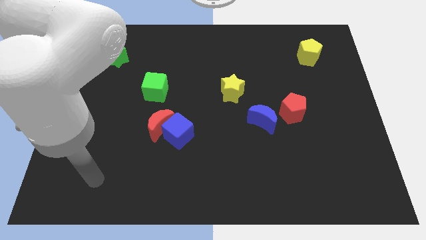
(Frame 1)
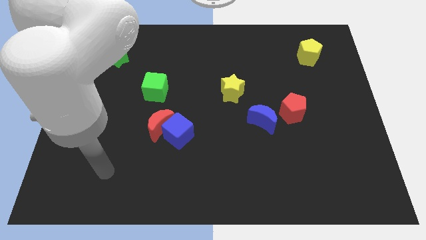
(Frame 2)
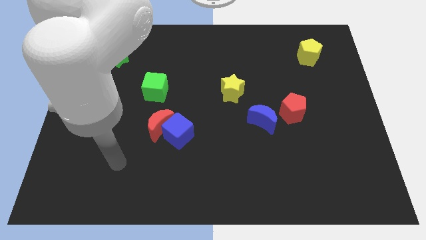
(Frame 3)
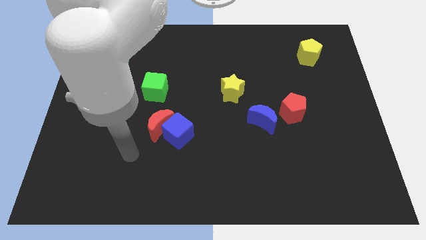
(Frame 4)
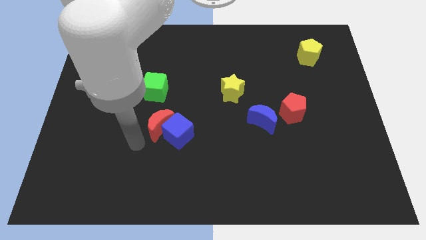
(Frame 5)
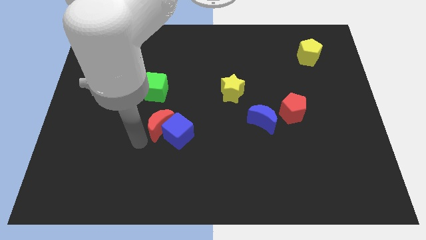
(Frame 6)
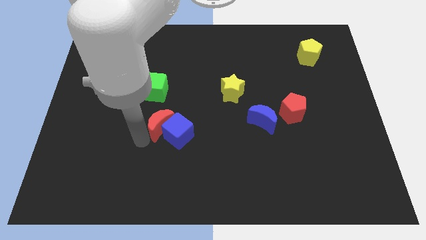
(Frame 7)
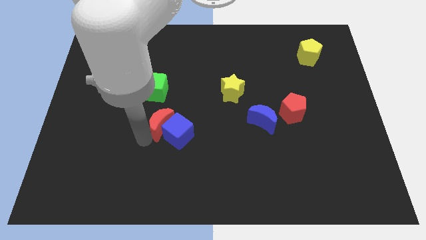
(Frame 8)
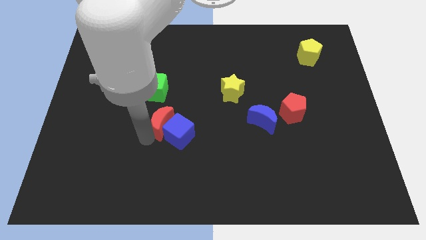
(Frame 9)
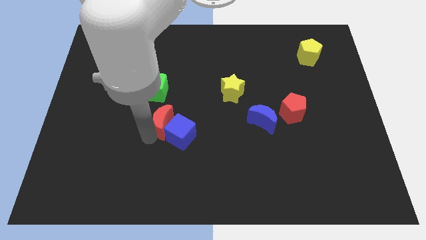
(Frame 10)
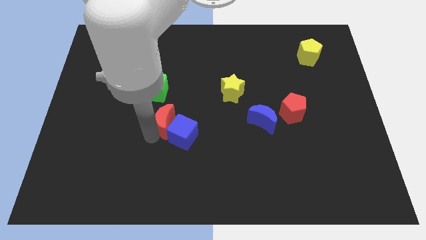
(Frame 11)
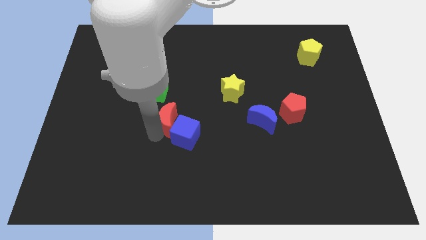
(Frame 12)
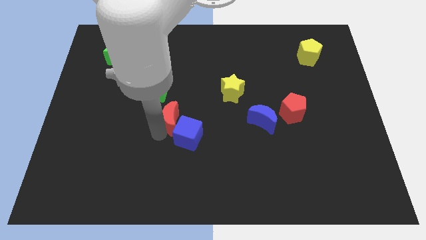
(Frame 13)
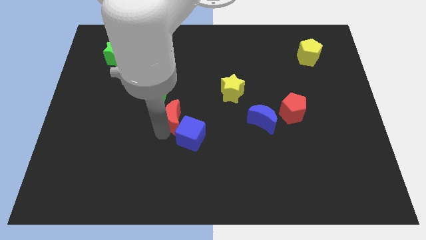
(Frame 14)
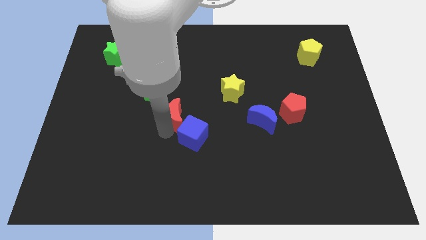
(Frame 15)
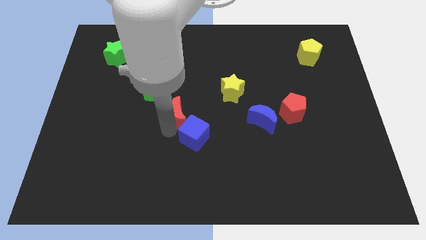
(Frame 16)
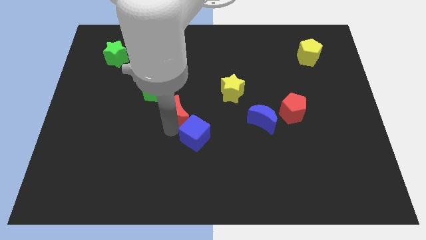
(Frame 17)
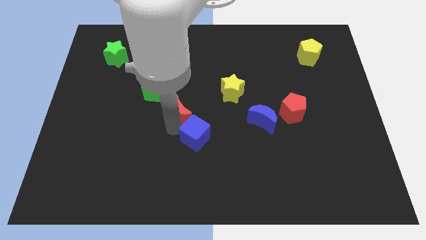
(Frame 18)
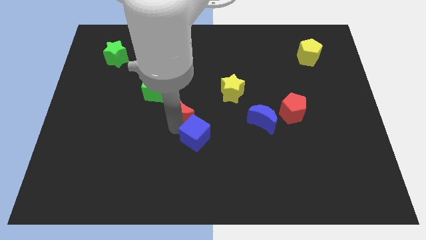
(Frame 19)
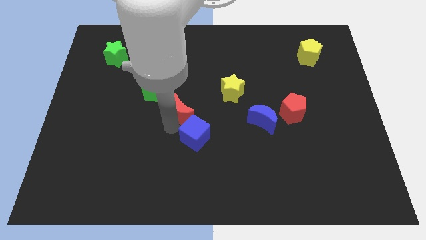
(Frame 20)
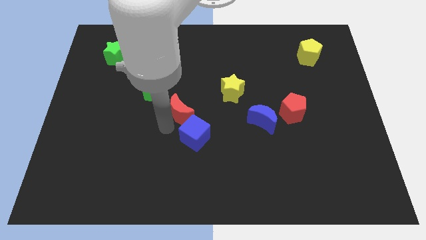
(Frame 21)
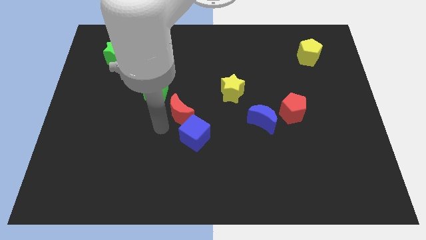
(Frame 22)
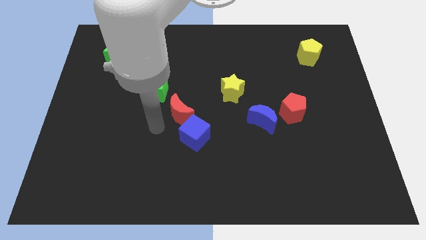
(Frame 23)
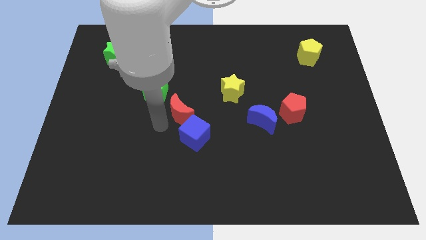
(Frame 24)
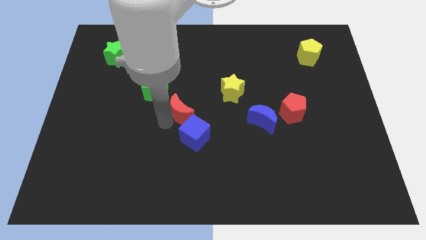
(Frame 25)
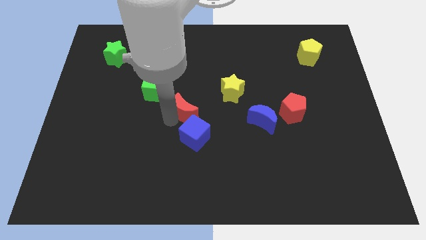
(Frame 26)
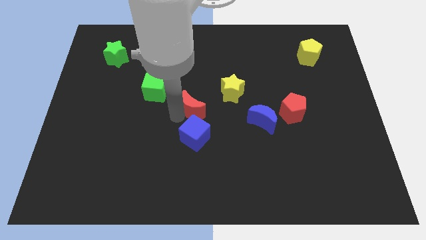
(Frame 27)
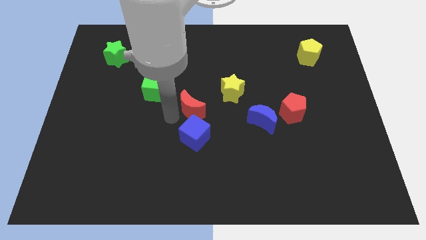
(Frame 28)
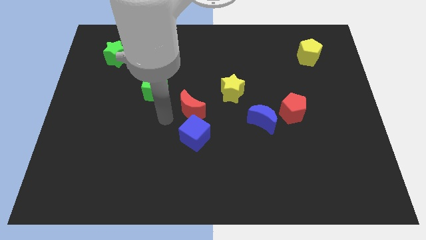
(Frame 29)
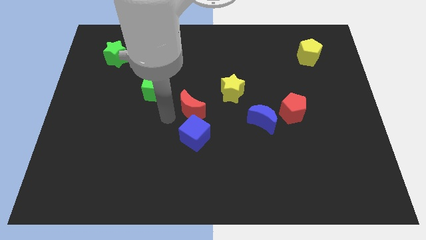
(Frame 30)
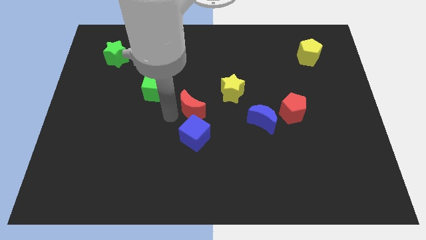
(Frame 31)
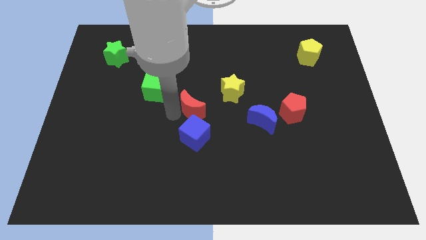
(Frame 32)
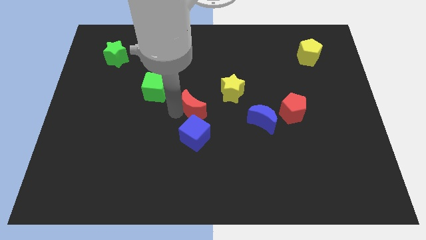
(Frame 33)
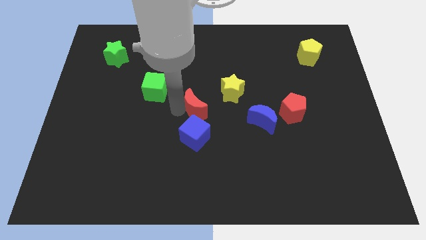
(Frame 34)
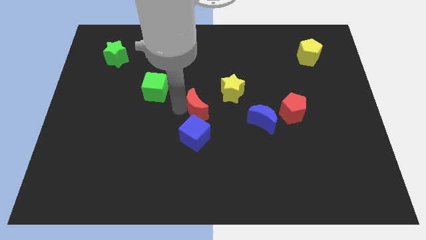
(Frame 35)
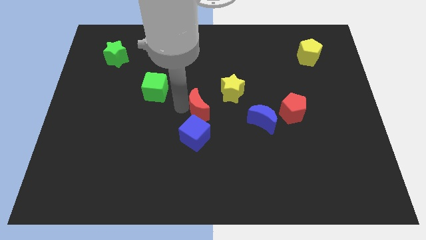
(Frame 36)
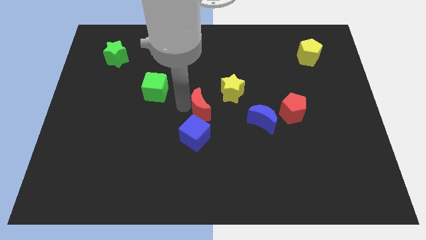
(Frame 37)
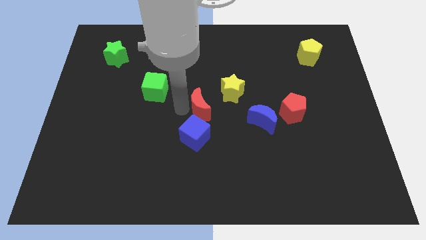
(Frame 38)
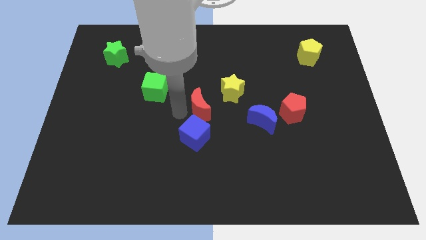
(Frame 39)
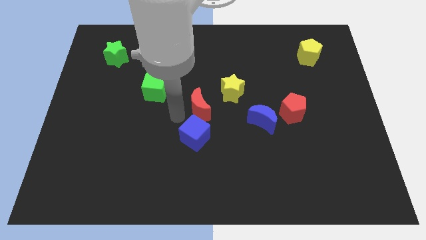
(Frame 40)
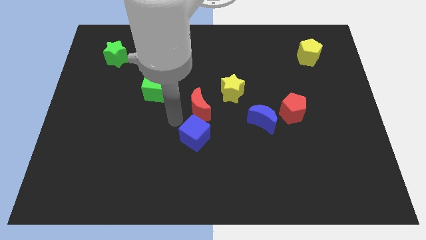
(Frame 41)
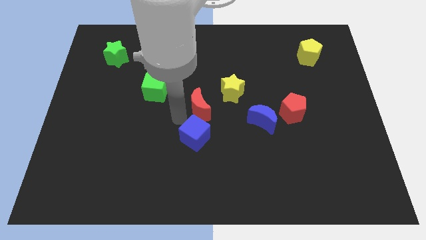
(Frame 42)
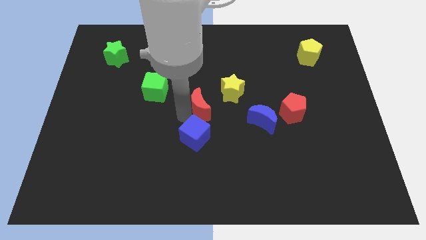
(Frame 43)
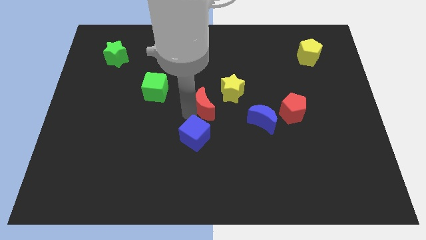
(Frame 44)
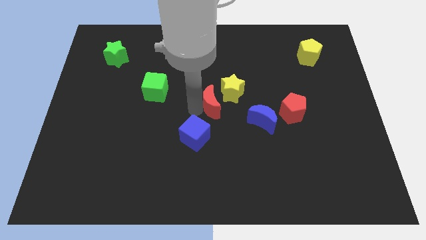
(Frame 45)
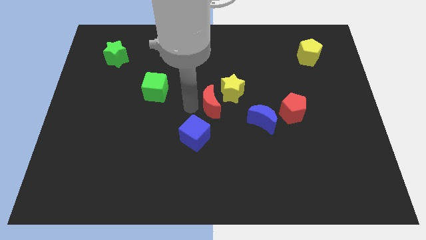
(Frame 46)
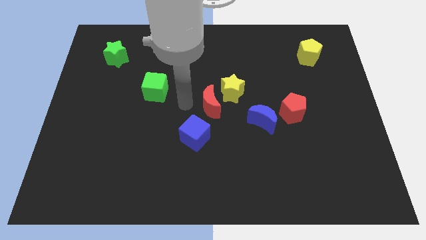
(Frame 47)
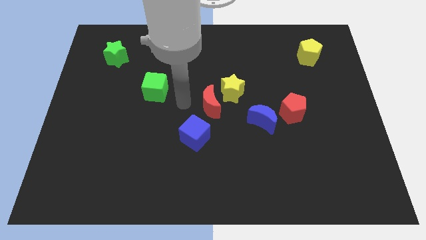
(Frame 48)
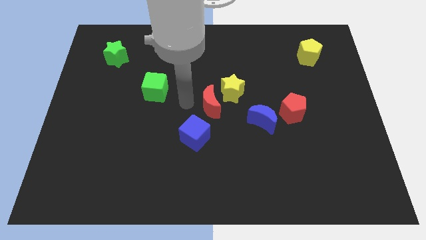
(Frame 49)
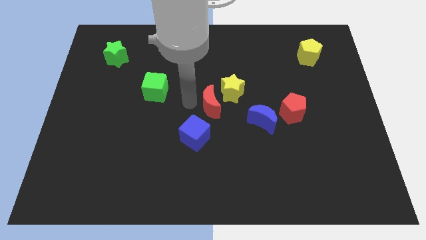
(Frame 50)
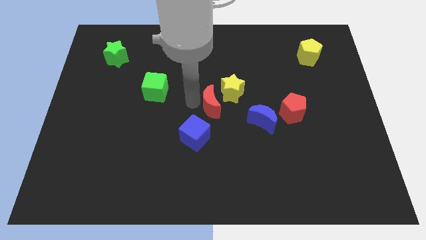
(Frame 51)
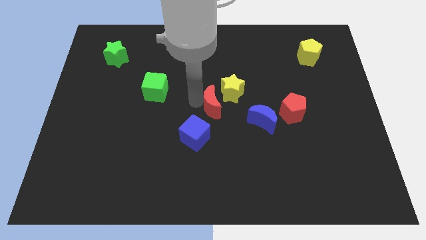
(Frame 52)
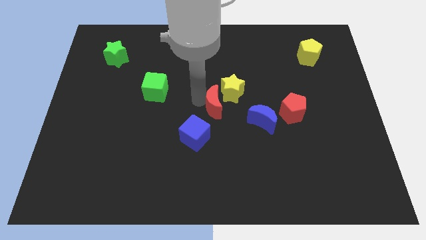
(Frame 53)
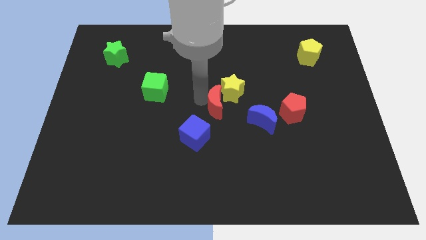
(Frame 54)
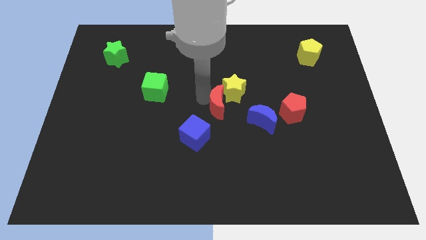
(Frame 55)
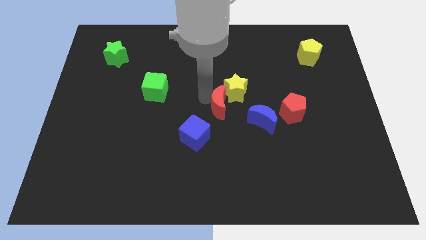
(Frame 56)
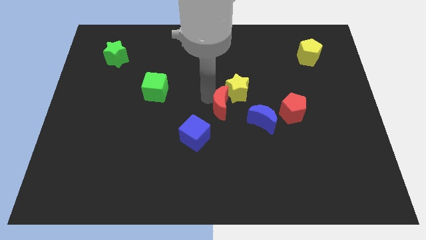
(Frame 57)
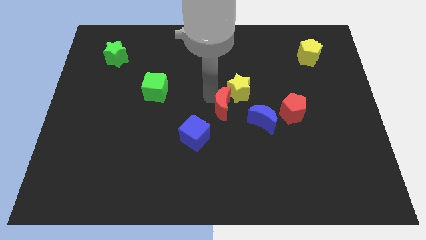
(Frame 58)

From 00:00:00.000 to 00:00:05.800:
push the red moon to the left side of the red pentagon

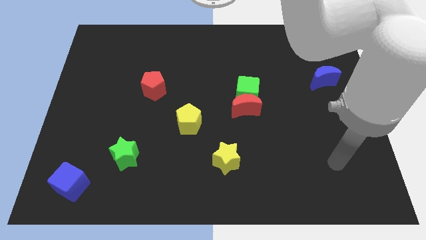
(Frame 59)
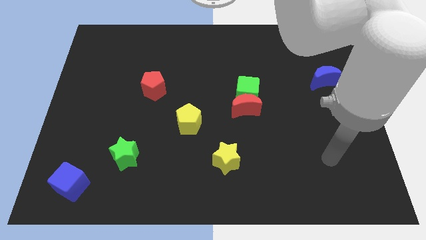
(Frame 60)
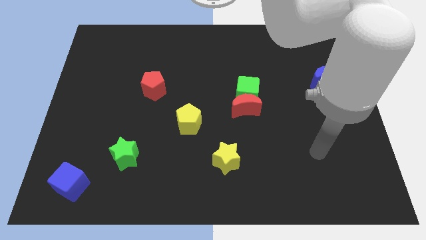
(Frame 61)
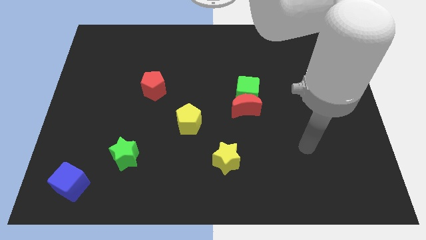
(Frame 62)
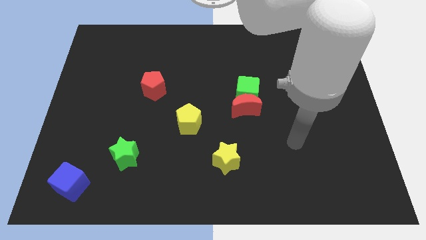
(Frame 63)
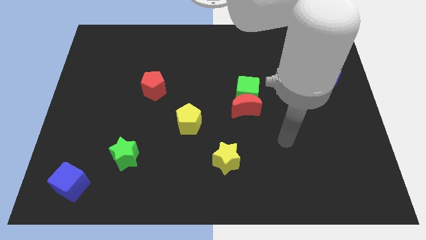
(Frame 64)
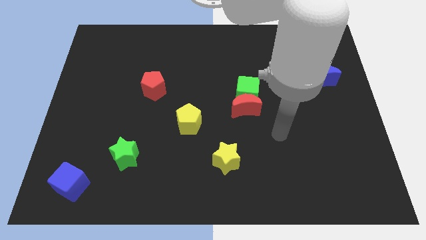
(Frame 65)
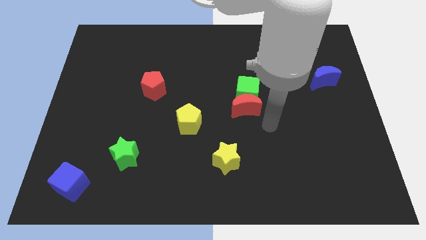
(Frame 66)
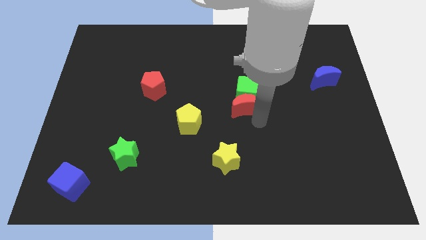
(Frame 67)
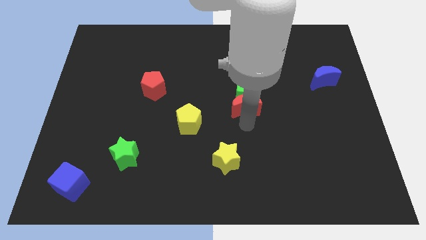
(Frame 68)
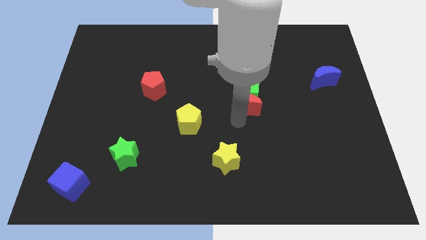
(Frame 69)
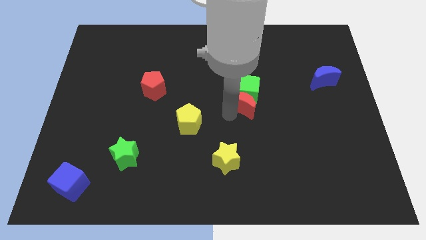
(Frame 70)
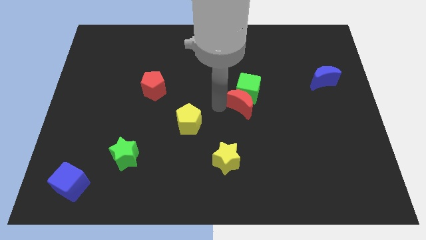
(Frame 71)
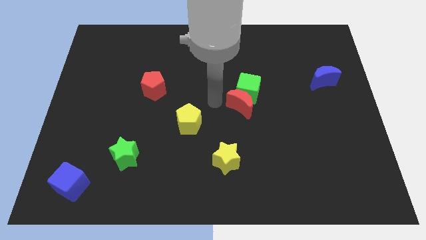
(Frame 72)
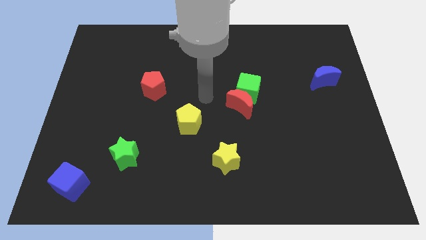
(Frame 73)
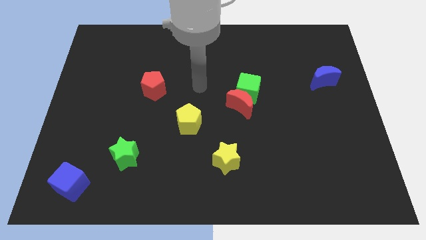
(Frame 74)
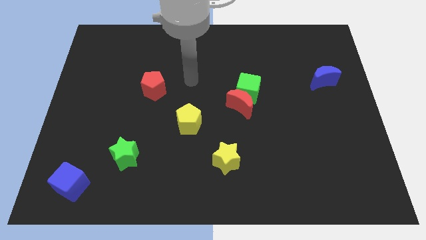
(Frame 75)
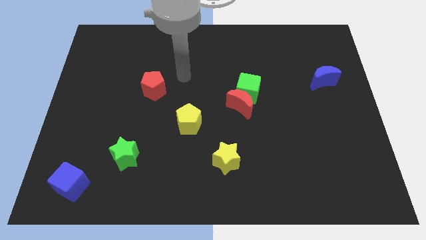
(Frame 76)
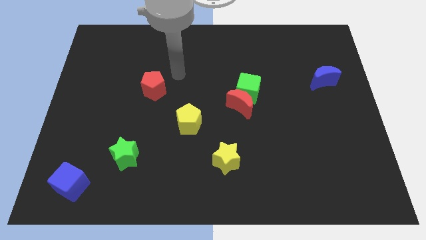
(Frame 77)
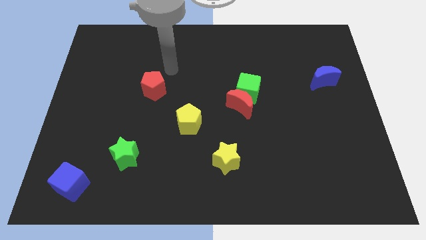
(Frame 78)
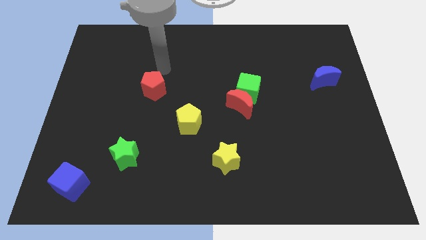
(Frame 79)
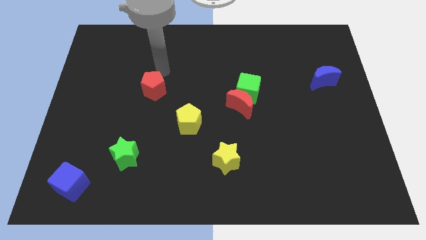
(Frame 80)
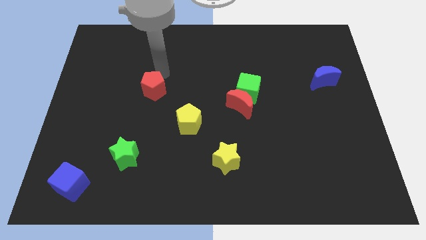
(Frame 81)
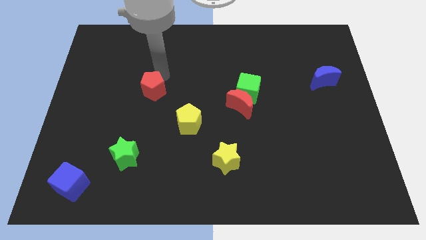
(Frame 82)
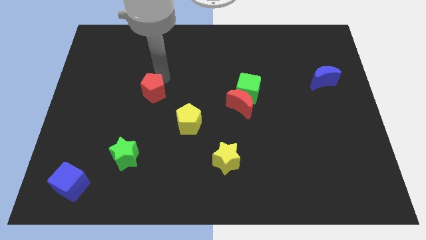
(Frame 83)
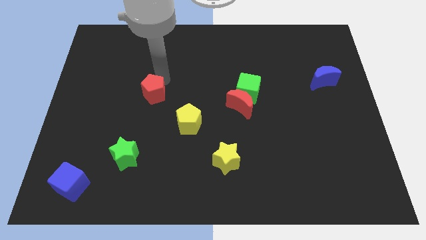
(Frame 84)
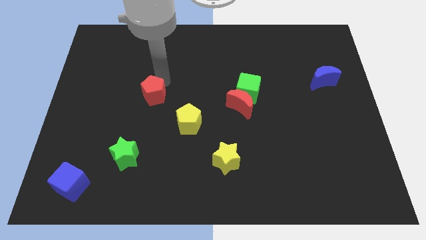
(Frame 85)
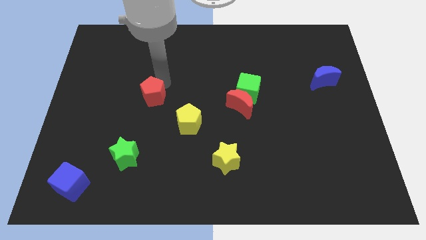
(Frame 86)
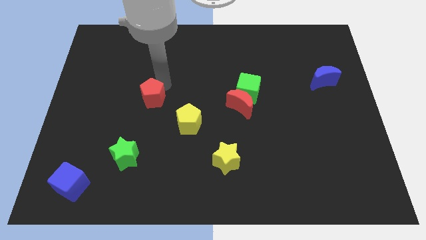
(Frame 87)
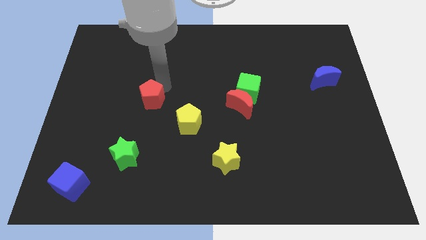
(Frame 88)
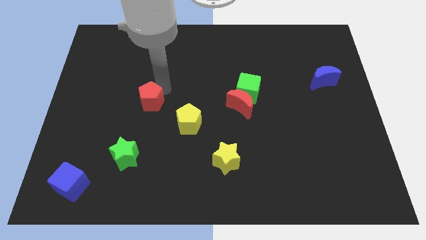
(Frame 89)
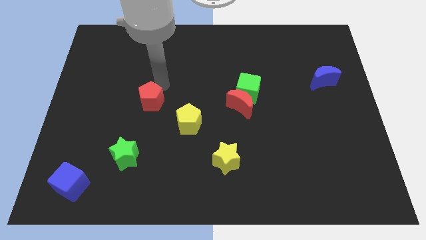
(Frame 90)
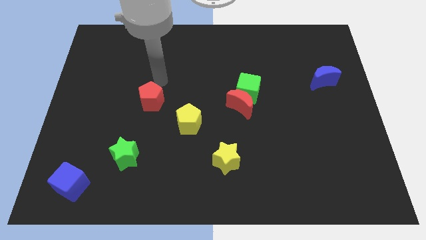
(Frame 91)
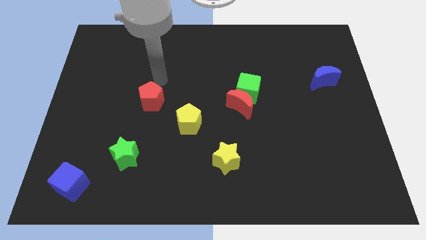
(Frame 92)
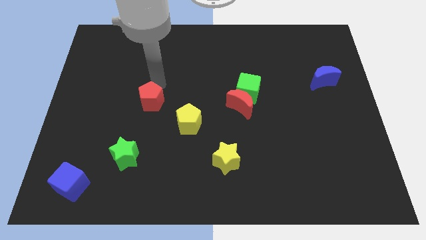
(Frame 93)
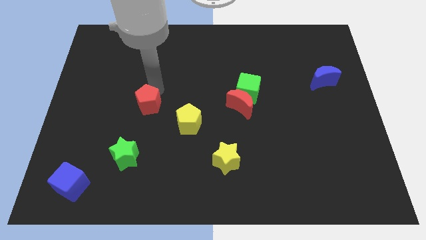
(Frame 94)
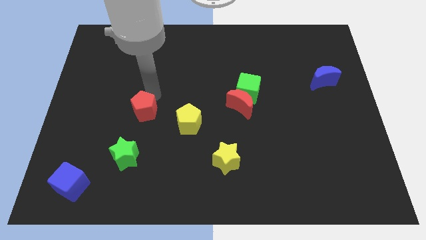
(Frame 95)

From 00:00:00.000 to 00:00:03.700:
put the red pentagon to the left of the yellow pentagon
